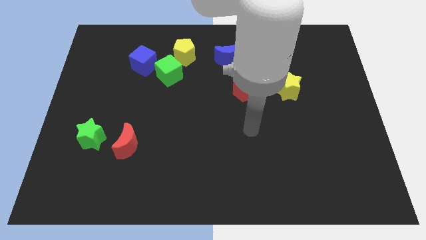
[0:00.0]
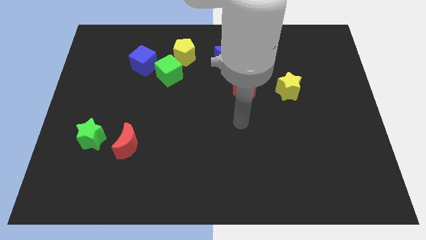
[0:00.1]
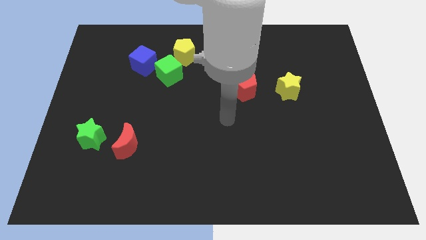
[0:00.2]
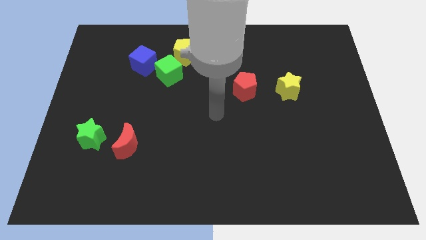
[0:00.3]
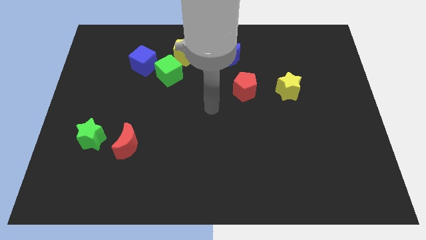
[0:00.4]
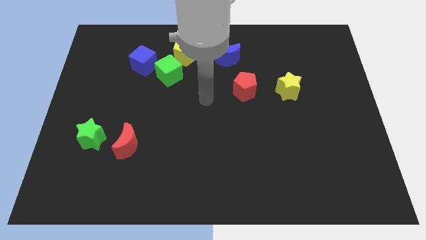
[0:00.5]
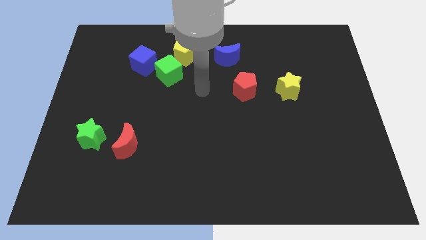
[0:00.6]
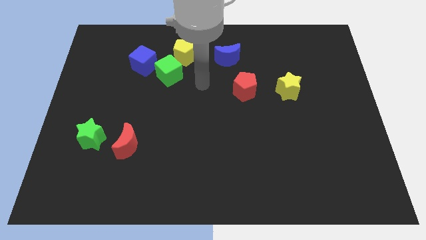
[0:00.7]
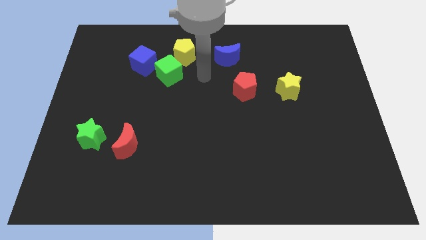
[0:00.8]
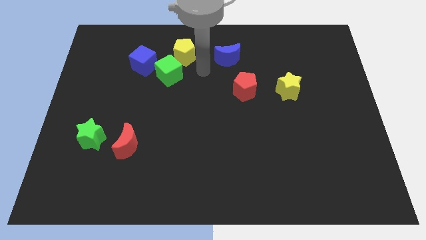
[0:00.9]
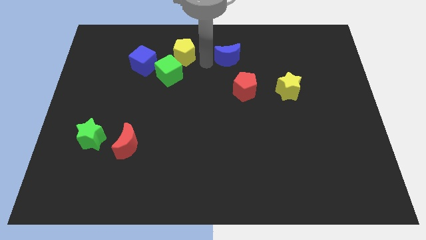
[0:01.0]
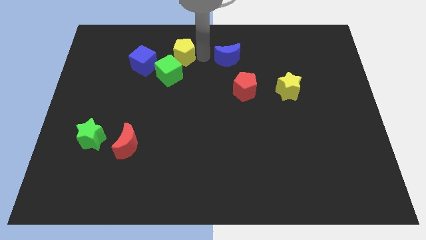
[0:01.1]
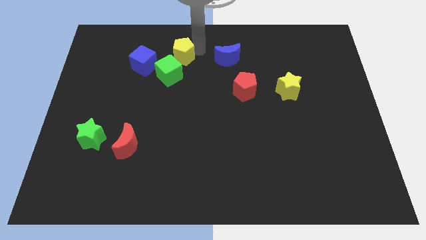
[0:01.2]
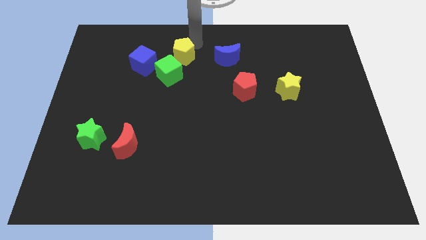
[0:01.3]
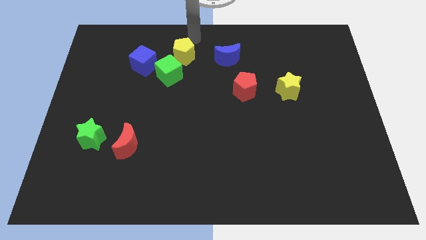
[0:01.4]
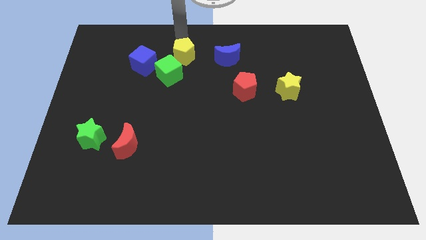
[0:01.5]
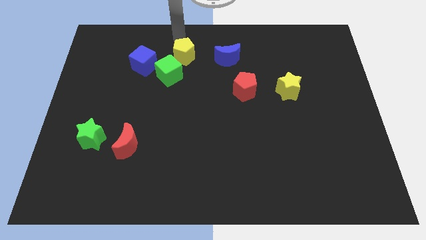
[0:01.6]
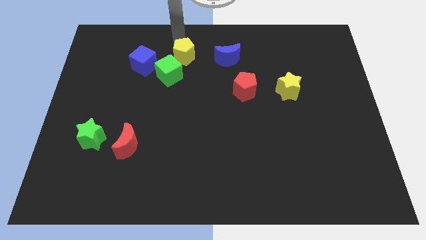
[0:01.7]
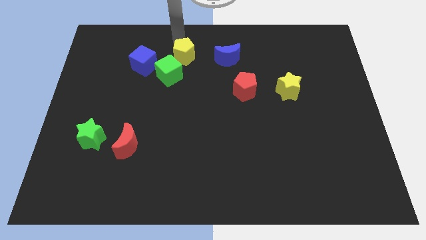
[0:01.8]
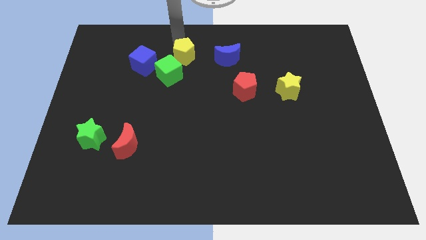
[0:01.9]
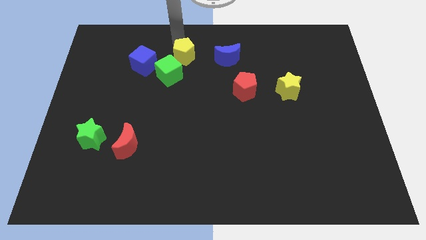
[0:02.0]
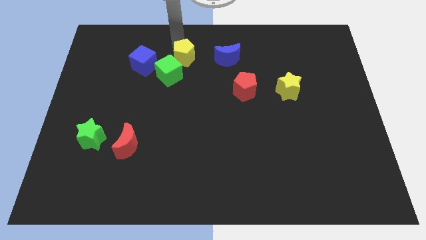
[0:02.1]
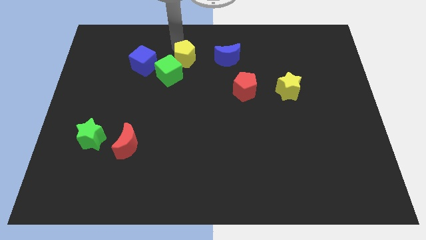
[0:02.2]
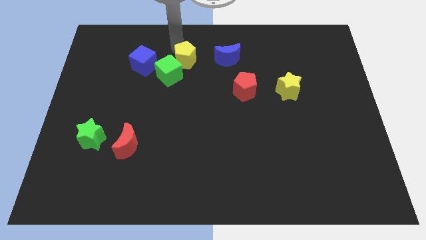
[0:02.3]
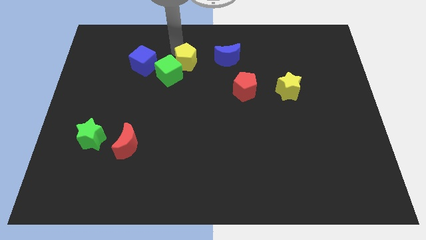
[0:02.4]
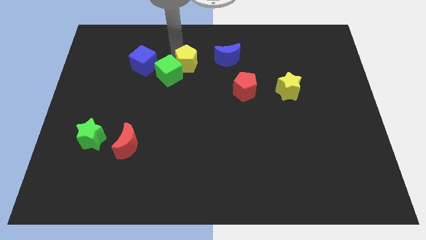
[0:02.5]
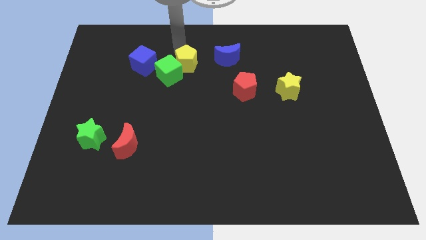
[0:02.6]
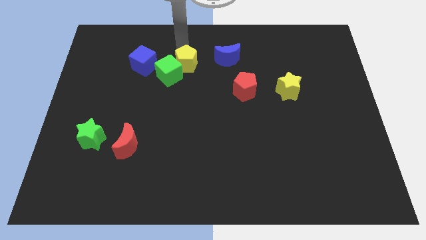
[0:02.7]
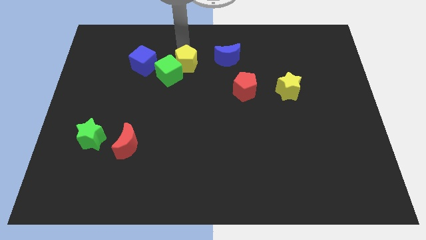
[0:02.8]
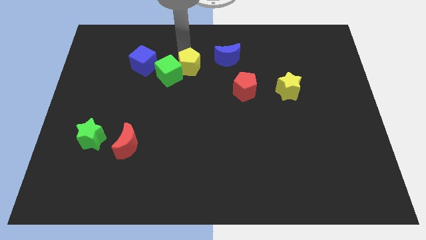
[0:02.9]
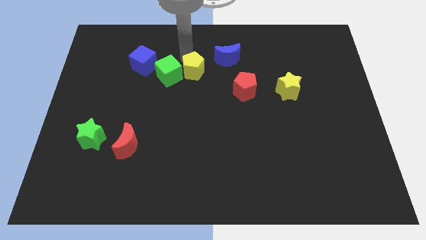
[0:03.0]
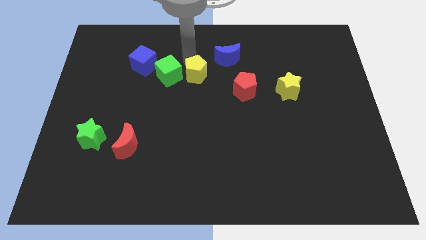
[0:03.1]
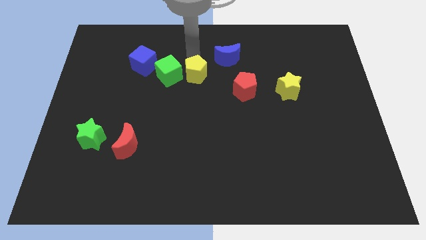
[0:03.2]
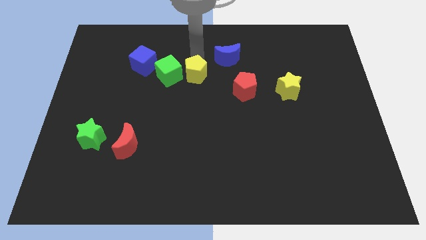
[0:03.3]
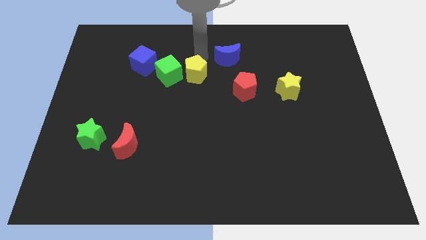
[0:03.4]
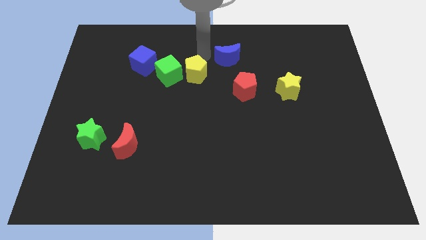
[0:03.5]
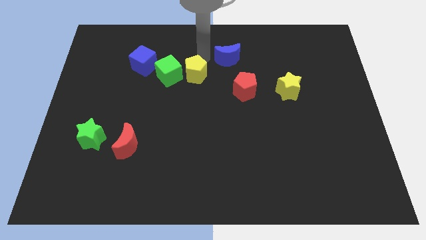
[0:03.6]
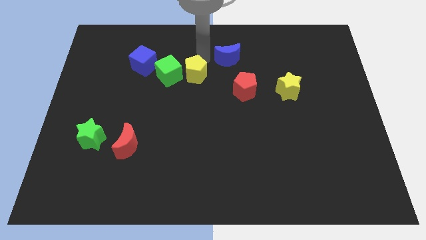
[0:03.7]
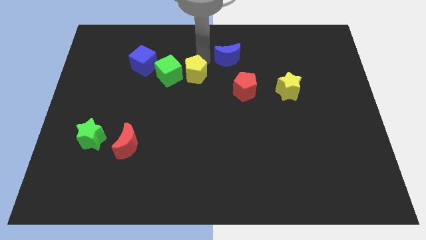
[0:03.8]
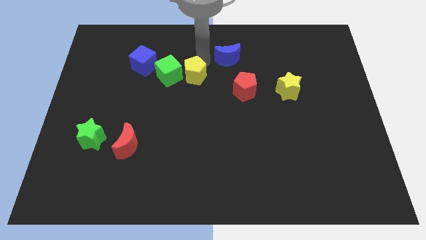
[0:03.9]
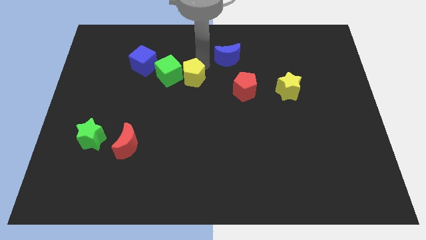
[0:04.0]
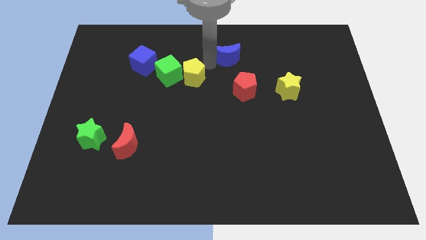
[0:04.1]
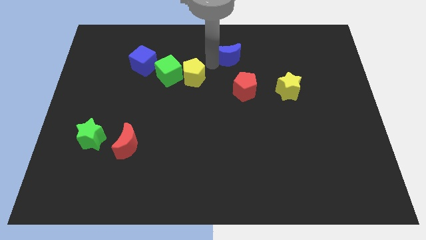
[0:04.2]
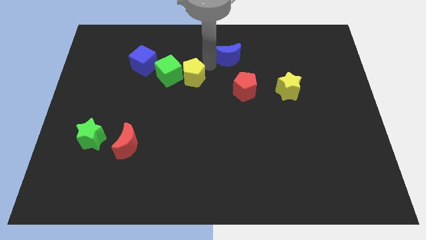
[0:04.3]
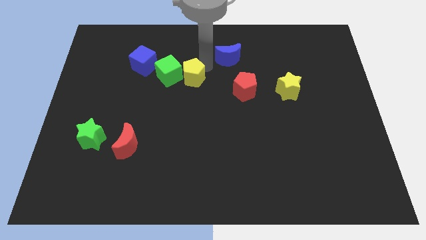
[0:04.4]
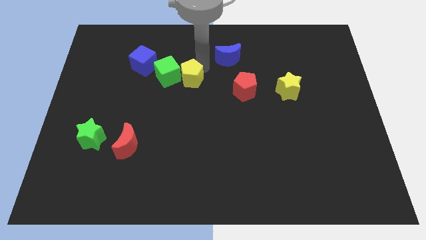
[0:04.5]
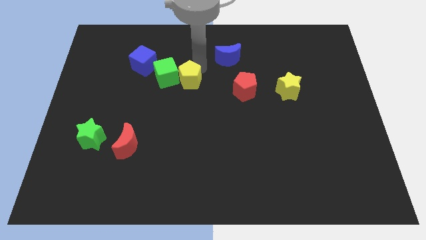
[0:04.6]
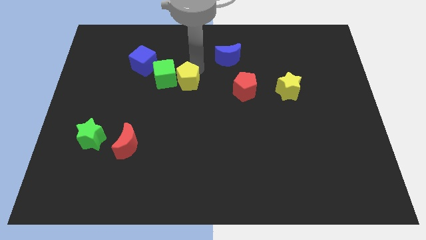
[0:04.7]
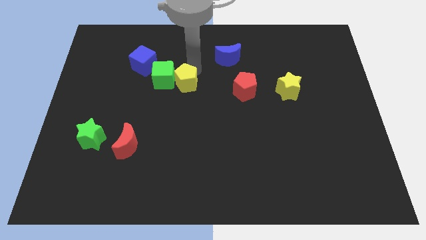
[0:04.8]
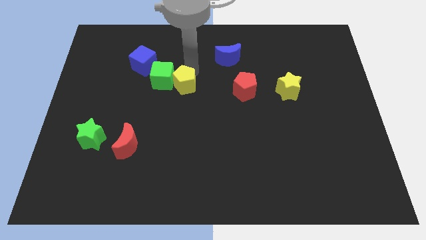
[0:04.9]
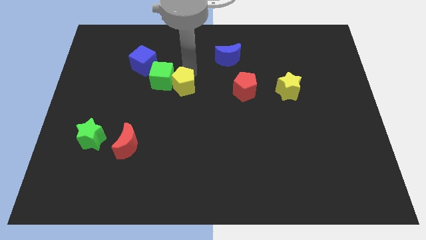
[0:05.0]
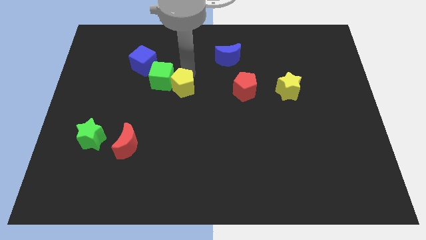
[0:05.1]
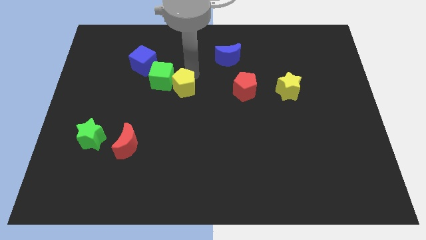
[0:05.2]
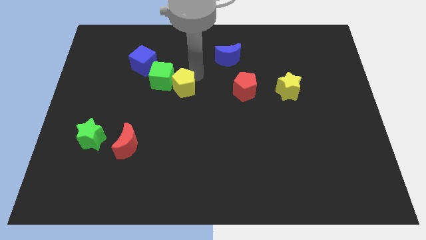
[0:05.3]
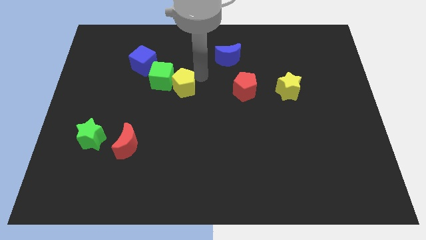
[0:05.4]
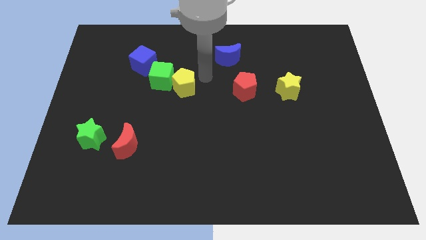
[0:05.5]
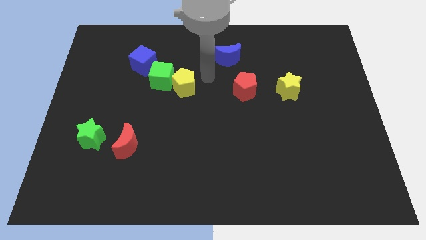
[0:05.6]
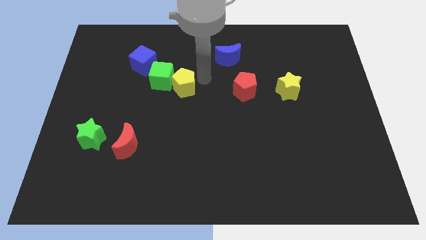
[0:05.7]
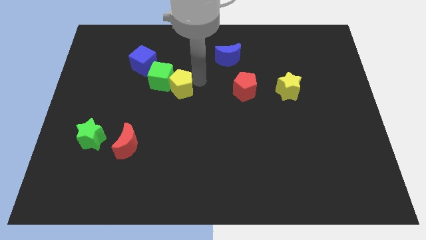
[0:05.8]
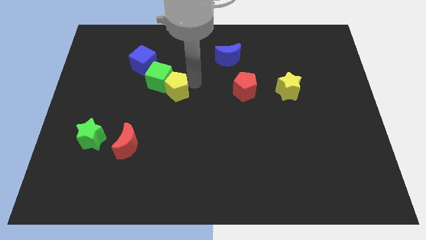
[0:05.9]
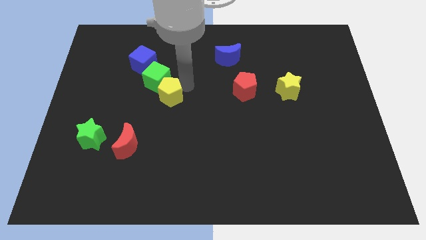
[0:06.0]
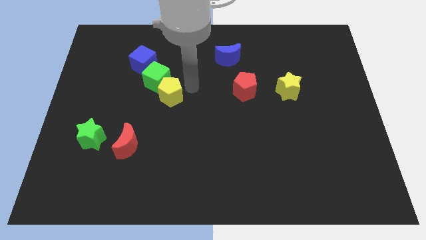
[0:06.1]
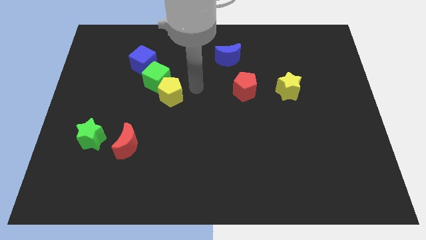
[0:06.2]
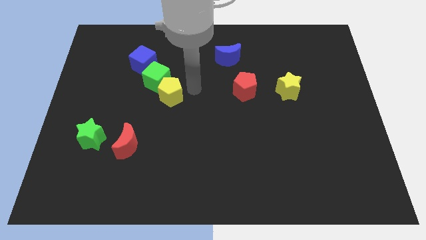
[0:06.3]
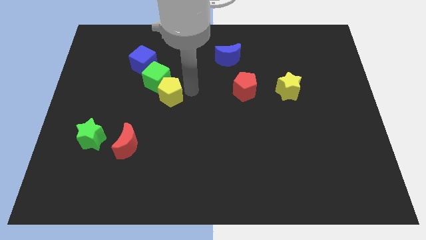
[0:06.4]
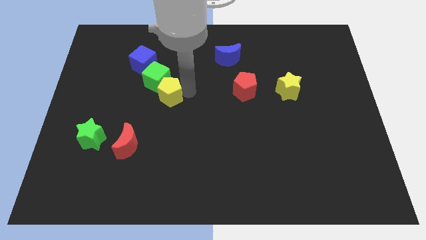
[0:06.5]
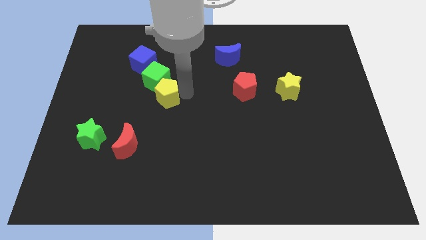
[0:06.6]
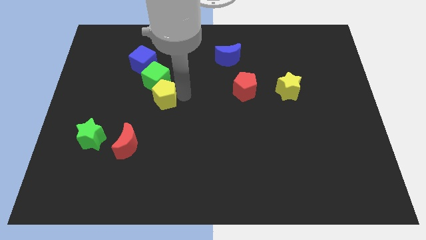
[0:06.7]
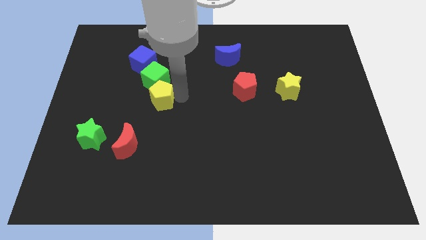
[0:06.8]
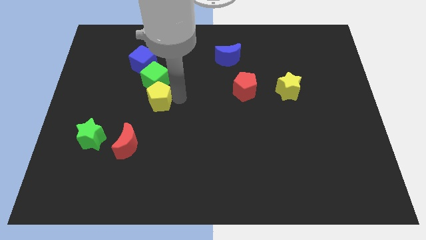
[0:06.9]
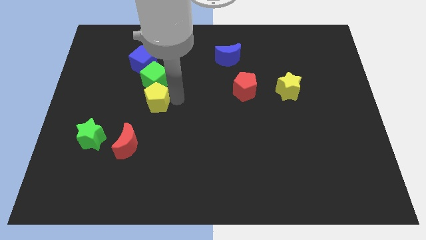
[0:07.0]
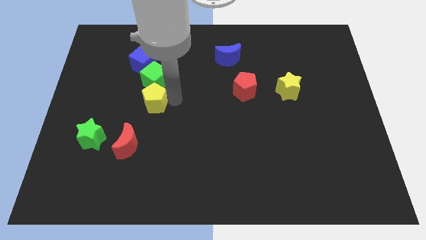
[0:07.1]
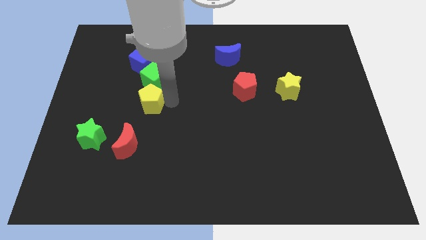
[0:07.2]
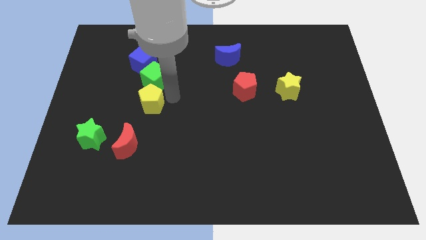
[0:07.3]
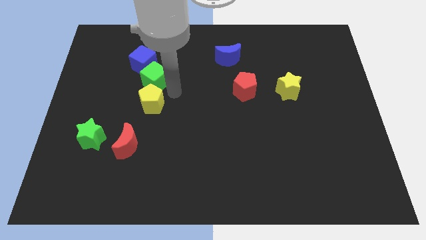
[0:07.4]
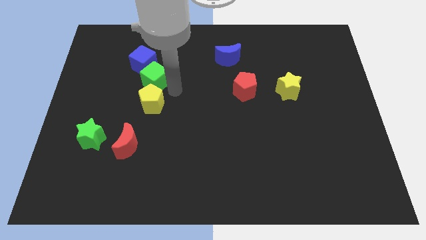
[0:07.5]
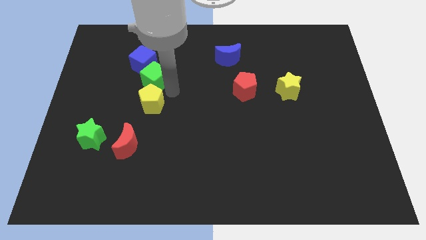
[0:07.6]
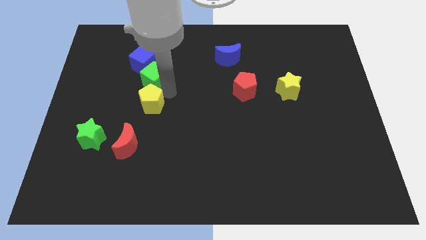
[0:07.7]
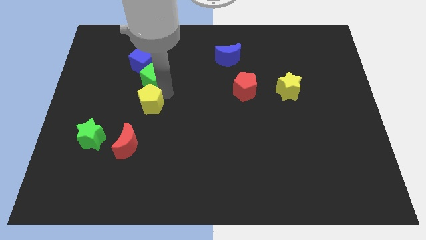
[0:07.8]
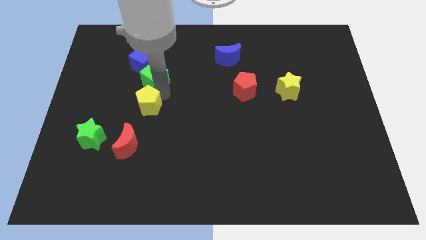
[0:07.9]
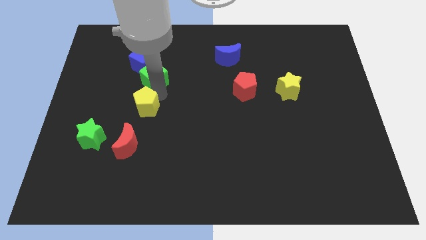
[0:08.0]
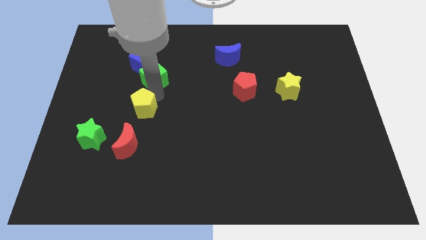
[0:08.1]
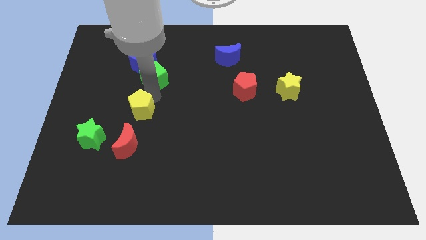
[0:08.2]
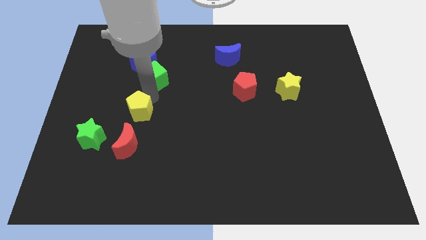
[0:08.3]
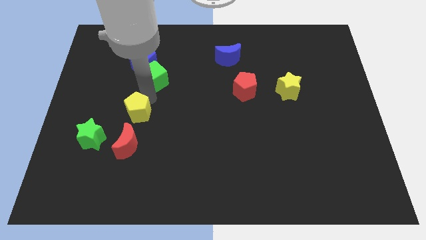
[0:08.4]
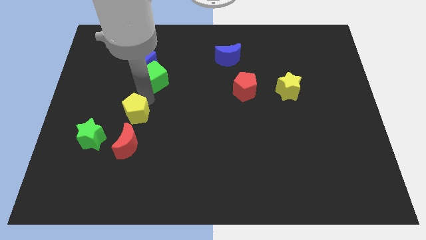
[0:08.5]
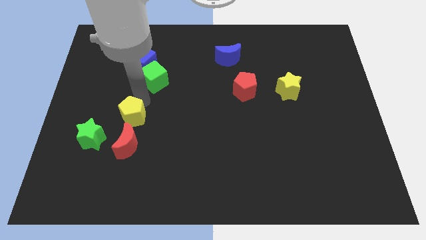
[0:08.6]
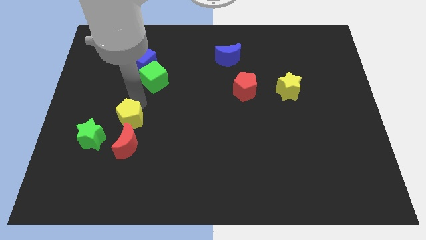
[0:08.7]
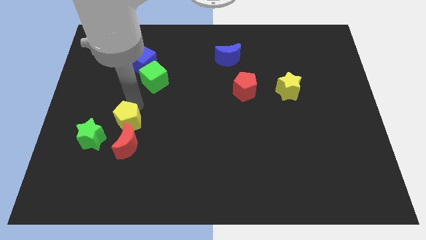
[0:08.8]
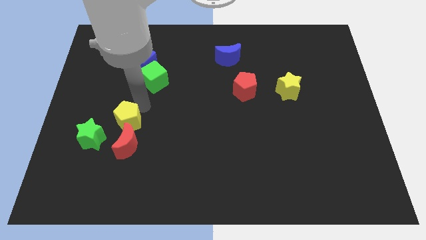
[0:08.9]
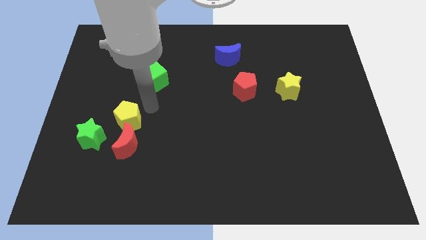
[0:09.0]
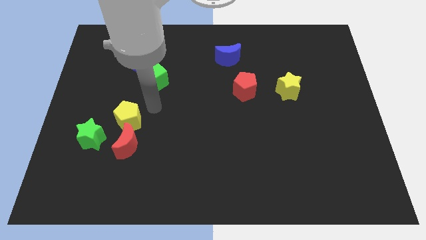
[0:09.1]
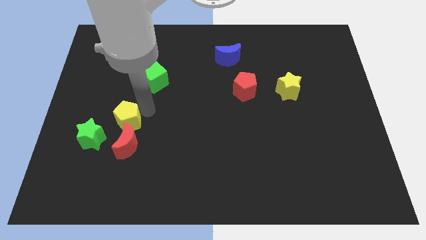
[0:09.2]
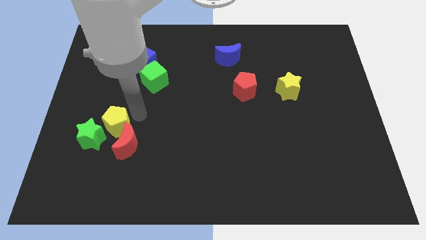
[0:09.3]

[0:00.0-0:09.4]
move the yellow pentagon towards the green star
